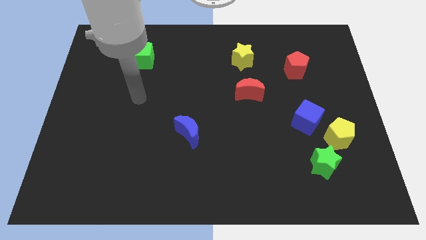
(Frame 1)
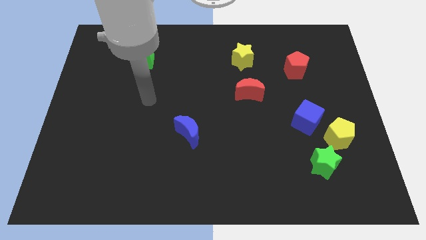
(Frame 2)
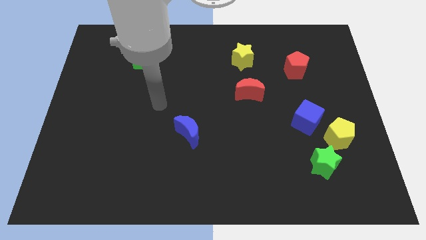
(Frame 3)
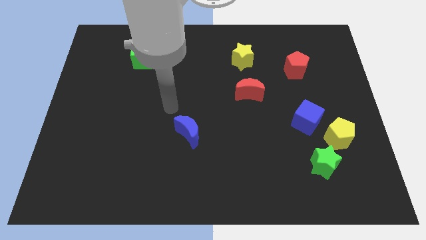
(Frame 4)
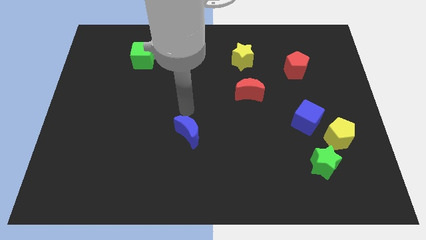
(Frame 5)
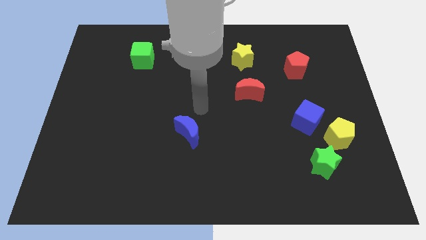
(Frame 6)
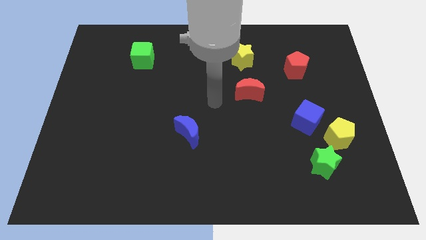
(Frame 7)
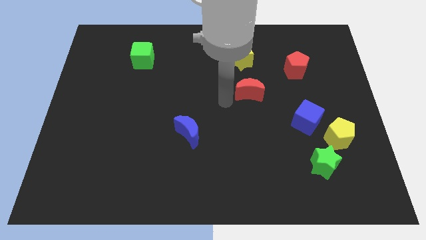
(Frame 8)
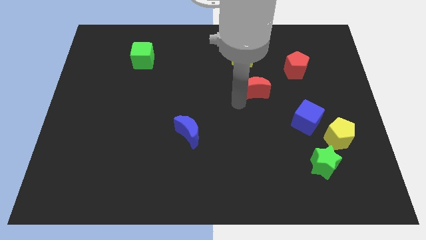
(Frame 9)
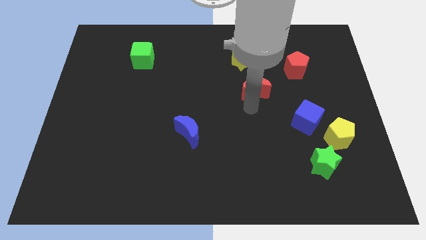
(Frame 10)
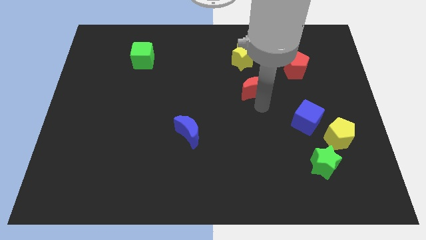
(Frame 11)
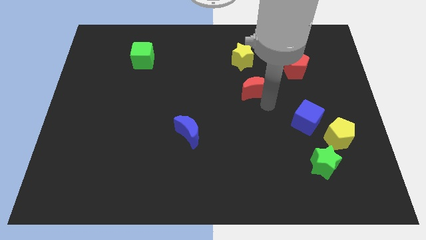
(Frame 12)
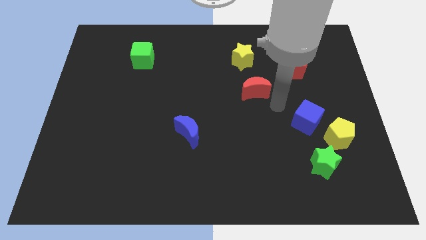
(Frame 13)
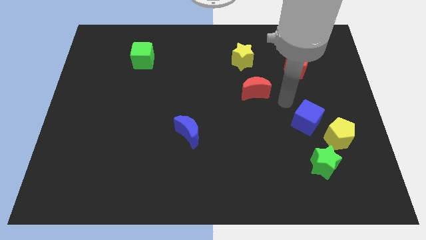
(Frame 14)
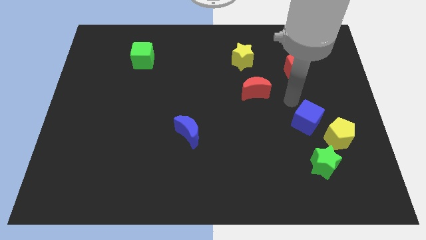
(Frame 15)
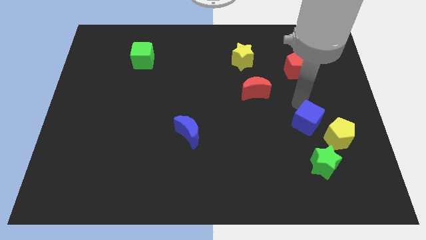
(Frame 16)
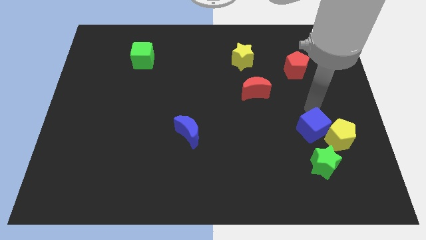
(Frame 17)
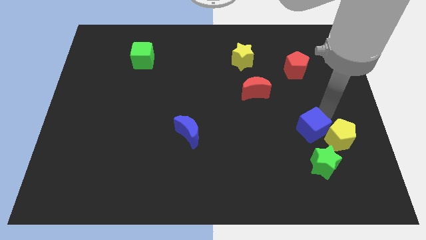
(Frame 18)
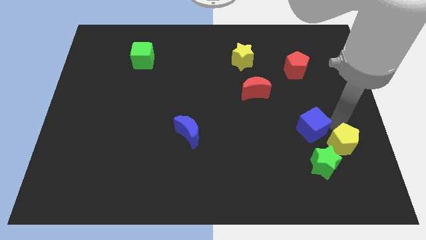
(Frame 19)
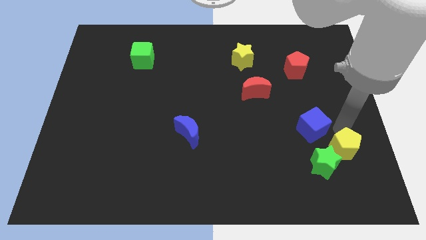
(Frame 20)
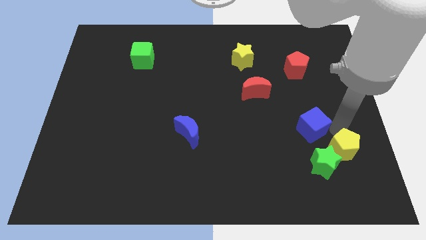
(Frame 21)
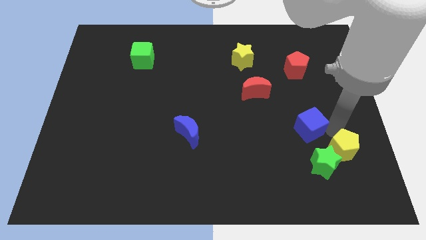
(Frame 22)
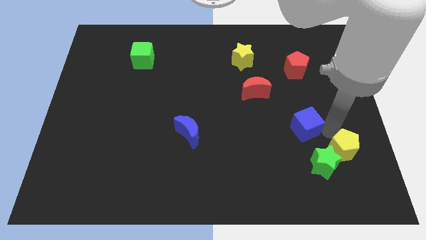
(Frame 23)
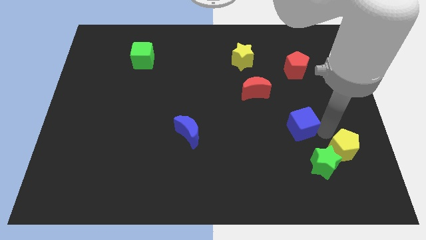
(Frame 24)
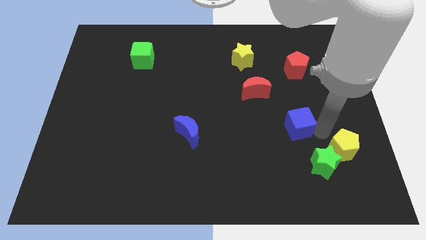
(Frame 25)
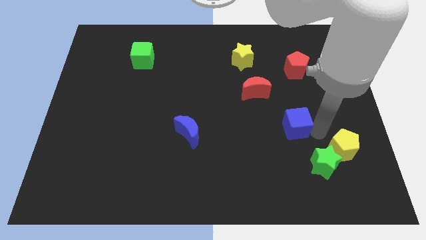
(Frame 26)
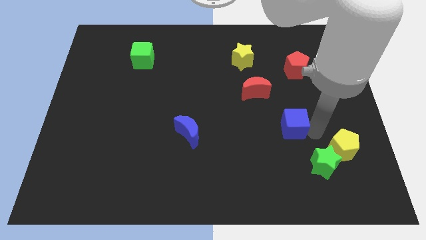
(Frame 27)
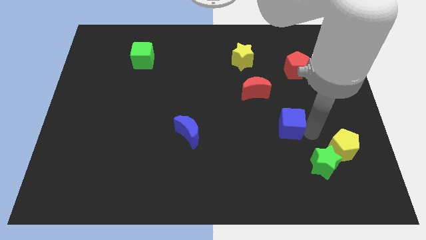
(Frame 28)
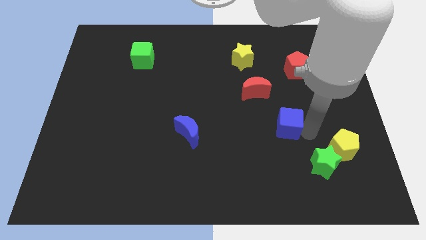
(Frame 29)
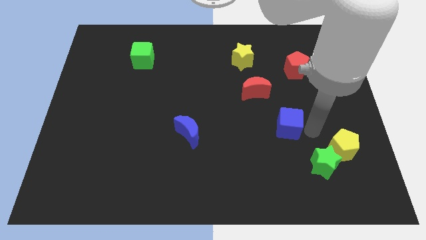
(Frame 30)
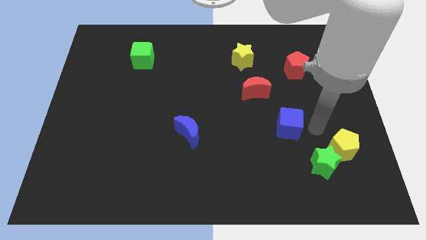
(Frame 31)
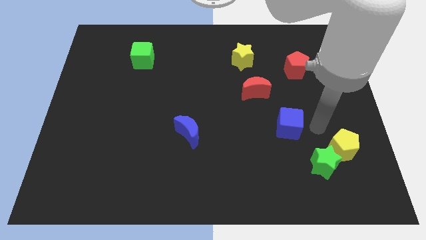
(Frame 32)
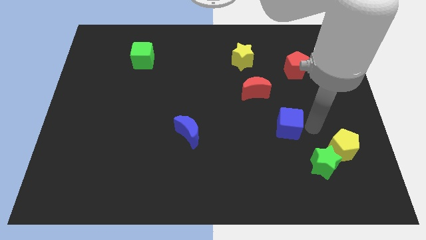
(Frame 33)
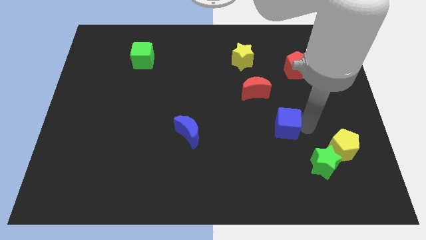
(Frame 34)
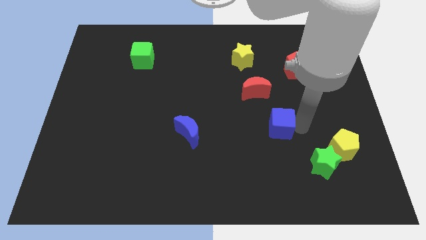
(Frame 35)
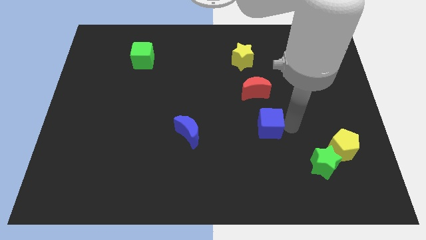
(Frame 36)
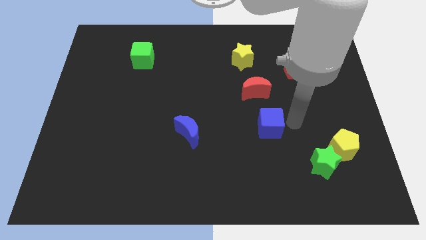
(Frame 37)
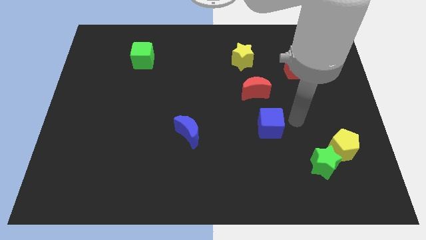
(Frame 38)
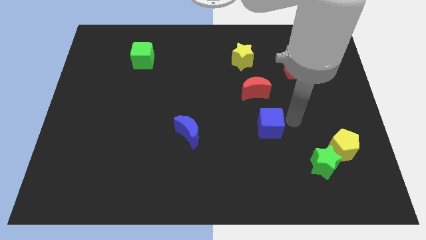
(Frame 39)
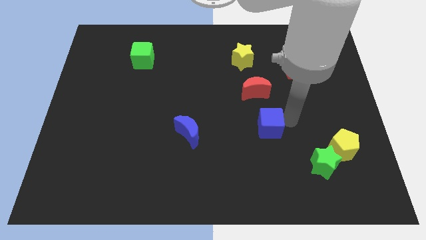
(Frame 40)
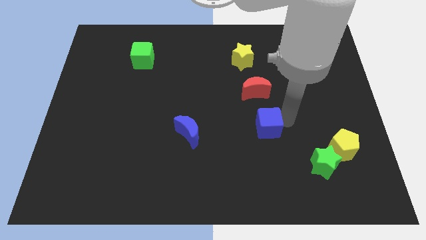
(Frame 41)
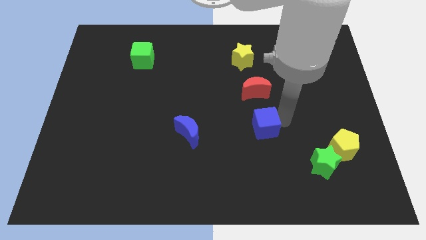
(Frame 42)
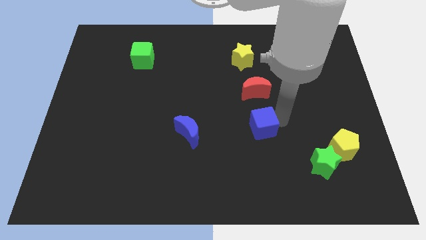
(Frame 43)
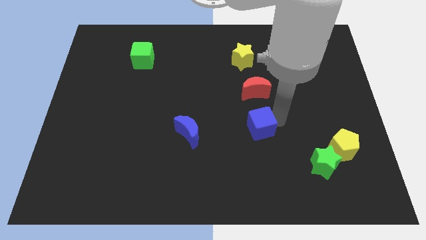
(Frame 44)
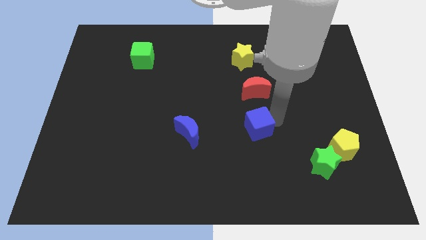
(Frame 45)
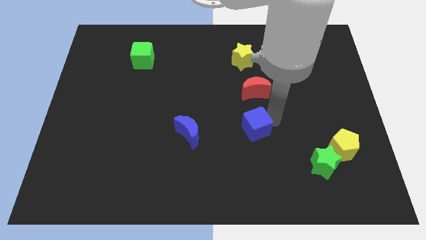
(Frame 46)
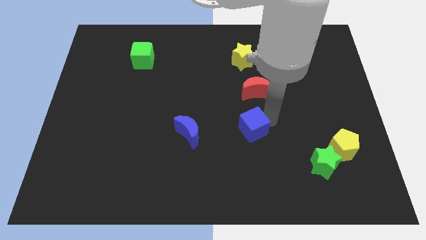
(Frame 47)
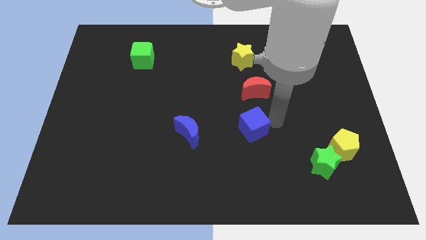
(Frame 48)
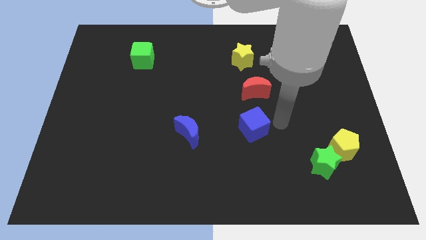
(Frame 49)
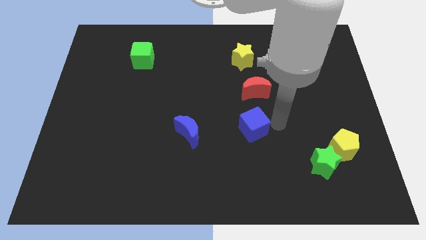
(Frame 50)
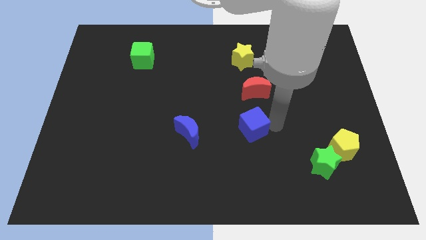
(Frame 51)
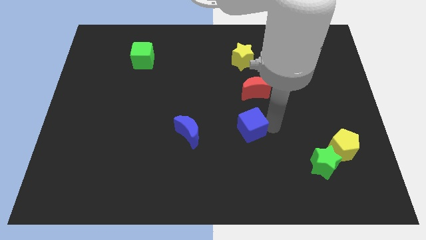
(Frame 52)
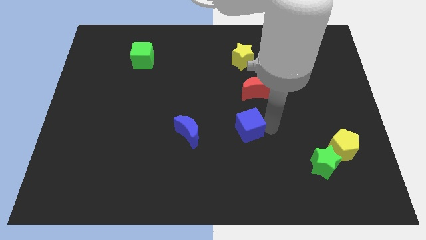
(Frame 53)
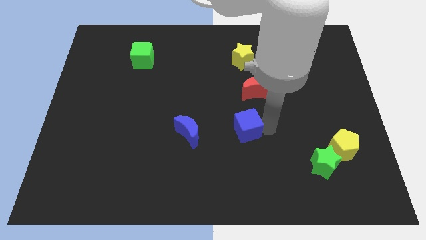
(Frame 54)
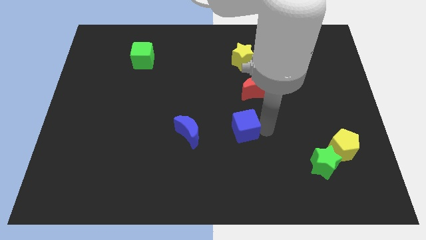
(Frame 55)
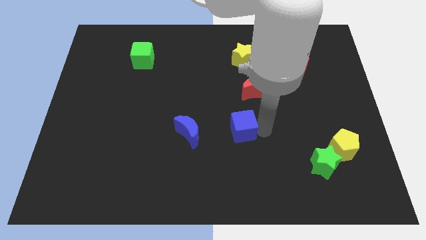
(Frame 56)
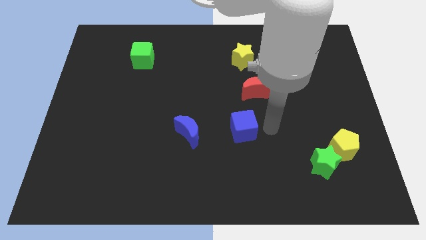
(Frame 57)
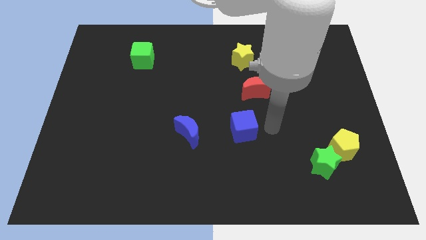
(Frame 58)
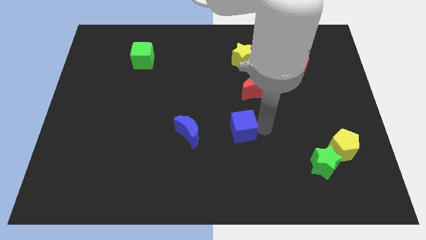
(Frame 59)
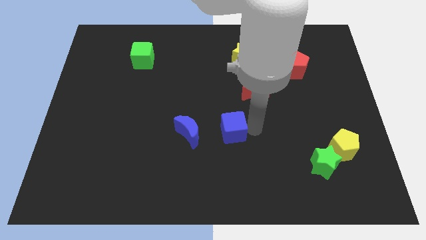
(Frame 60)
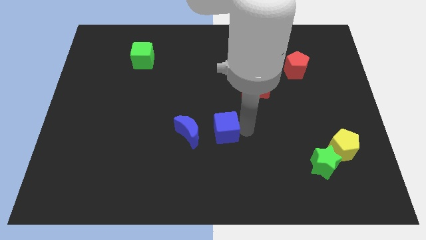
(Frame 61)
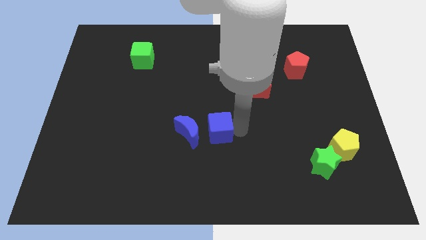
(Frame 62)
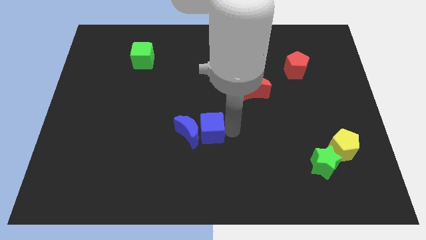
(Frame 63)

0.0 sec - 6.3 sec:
put the blue cube towards the blue moon
